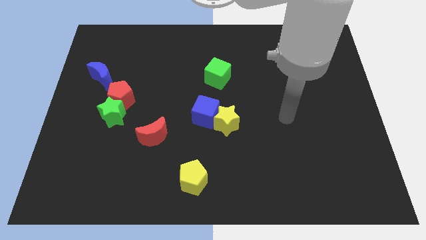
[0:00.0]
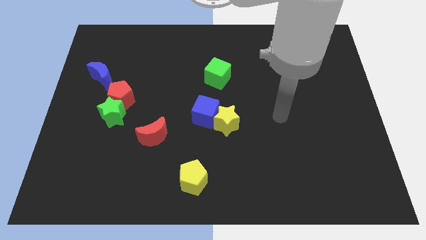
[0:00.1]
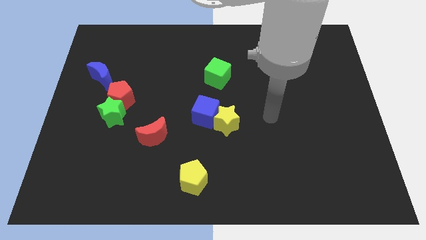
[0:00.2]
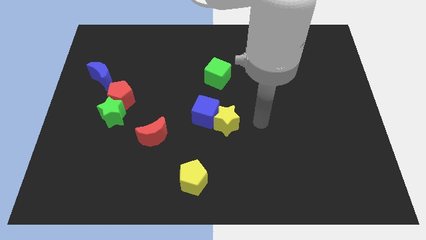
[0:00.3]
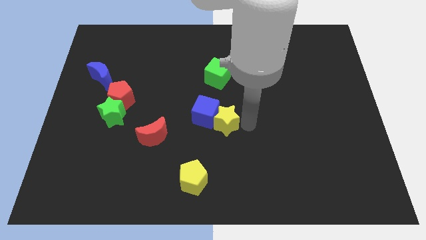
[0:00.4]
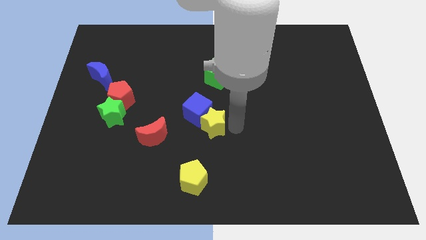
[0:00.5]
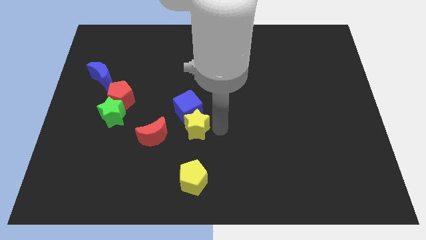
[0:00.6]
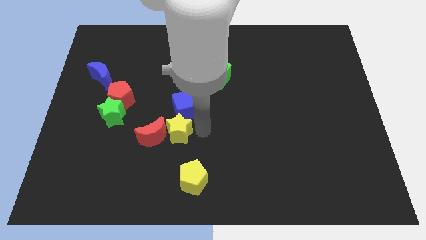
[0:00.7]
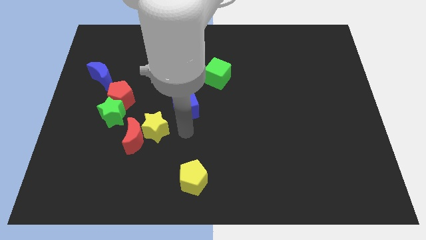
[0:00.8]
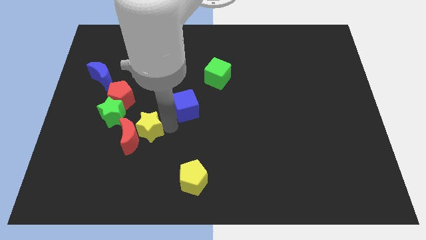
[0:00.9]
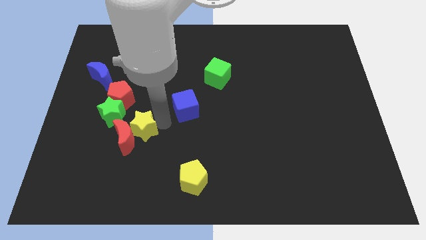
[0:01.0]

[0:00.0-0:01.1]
pull the blue cube apart from the yellow star

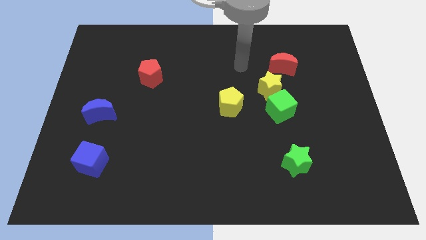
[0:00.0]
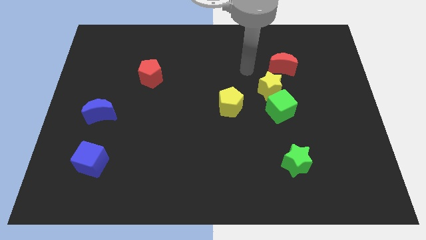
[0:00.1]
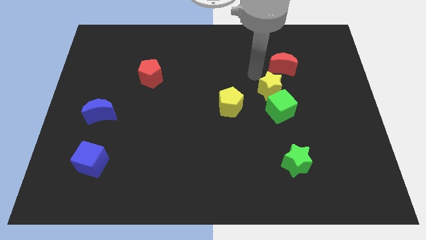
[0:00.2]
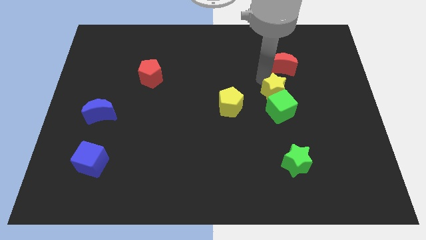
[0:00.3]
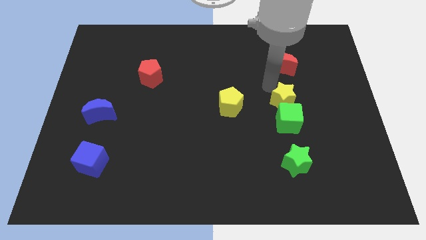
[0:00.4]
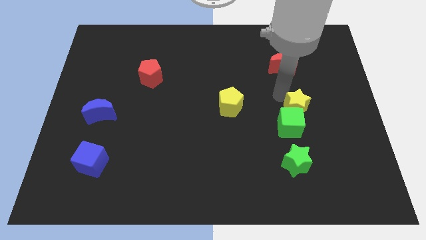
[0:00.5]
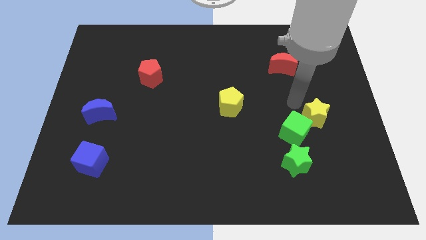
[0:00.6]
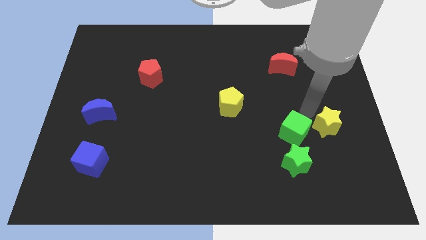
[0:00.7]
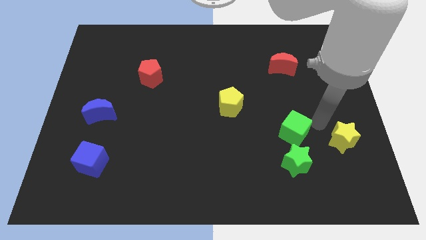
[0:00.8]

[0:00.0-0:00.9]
separate the green cube from the yellow star

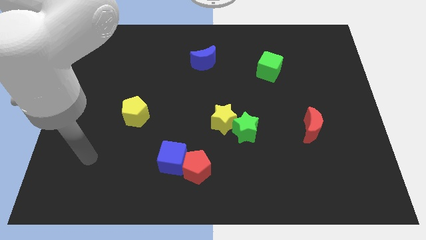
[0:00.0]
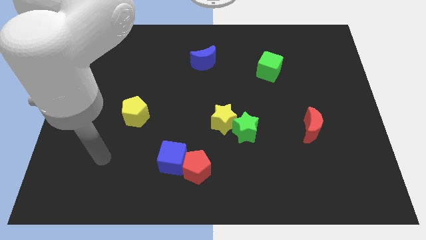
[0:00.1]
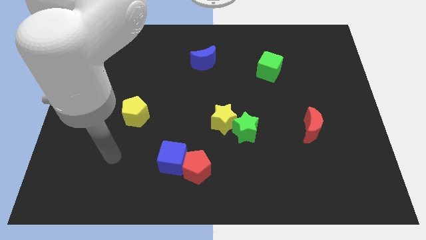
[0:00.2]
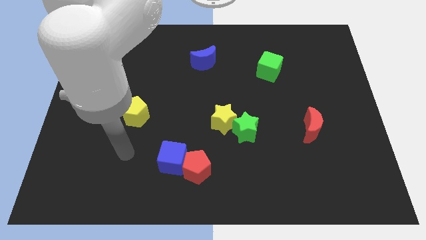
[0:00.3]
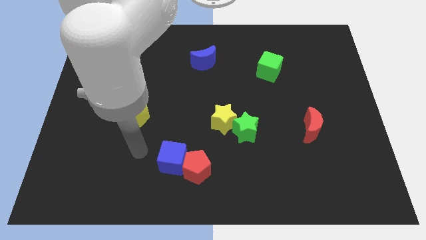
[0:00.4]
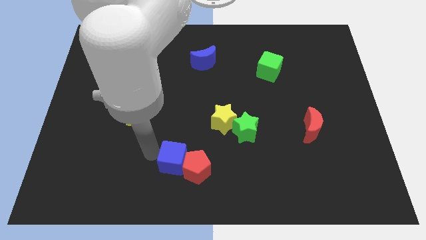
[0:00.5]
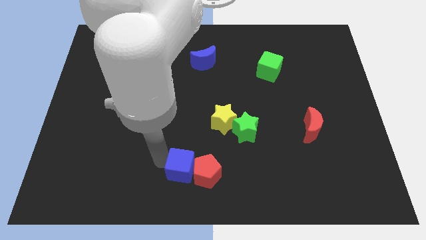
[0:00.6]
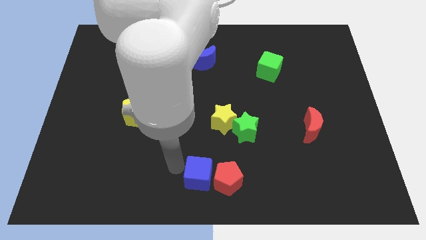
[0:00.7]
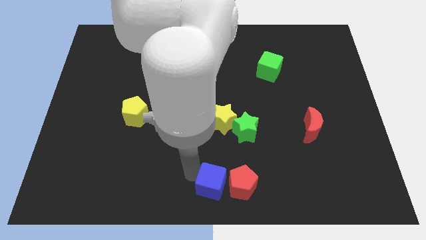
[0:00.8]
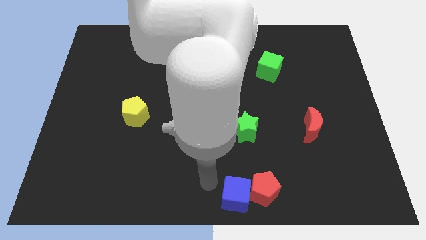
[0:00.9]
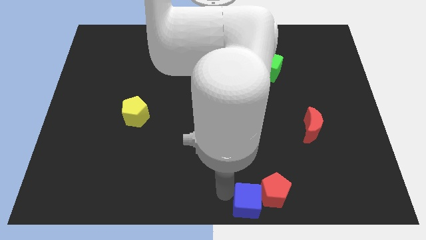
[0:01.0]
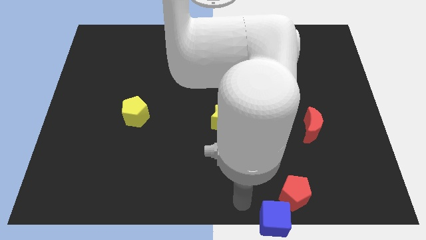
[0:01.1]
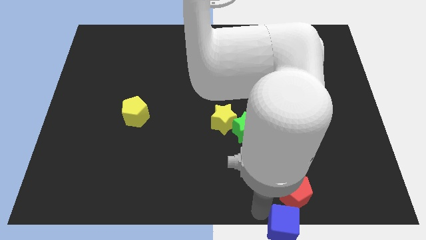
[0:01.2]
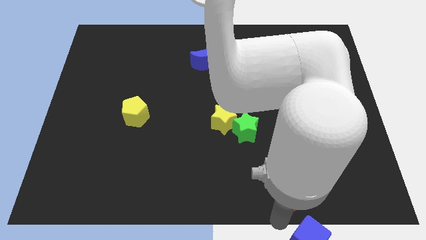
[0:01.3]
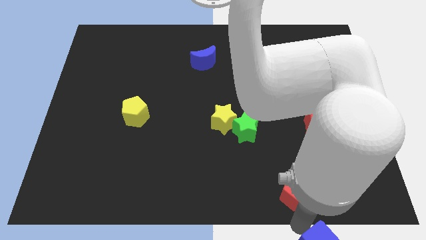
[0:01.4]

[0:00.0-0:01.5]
pull the red pentagon apart from the blue cube

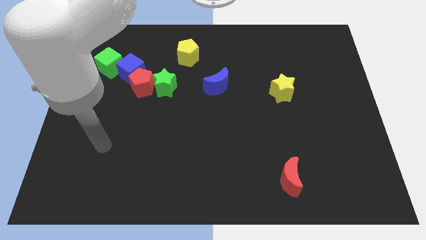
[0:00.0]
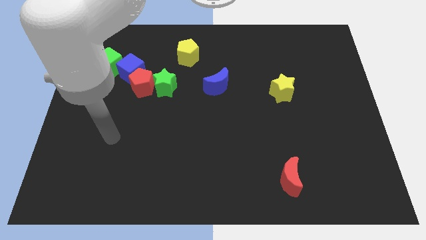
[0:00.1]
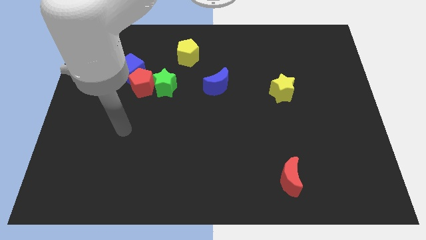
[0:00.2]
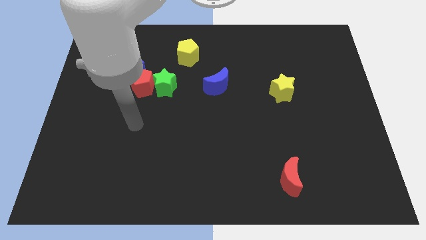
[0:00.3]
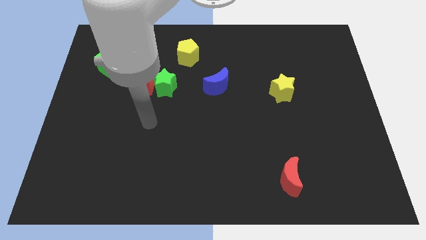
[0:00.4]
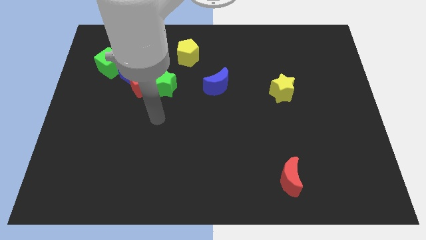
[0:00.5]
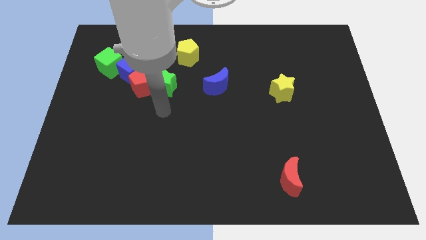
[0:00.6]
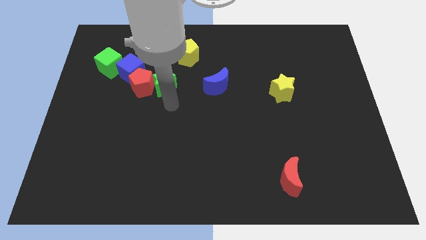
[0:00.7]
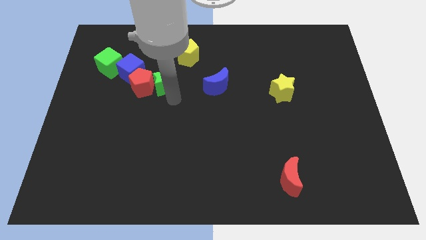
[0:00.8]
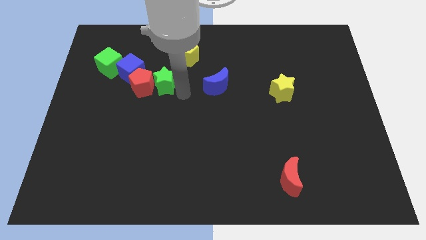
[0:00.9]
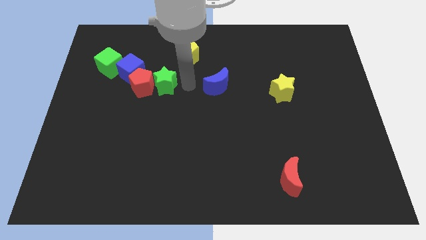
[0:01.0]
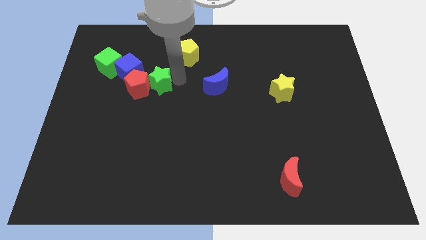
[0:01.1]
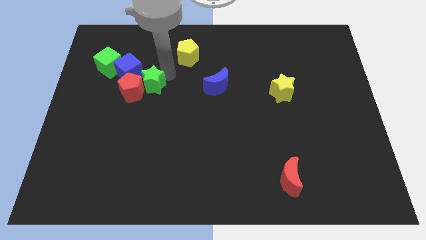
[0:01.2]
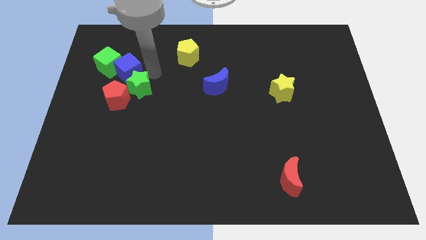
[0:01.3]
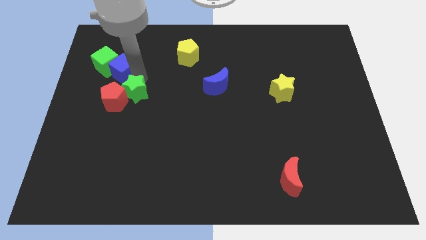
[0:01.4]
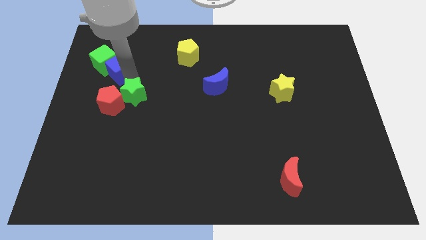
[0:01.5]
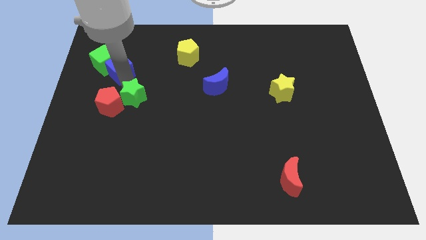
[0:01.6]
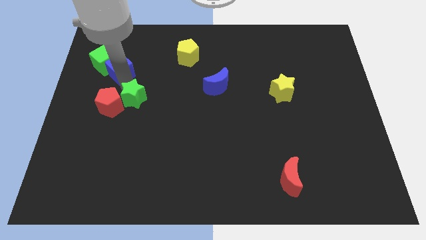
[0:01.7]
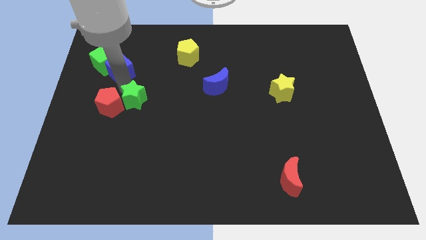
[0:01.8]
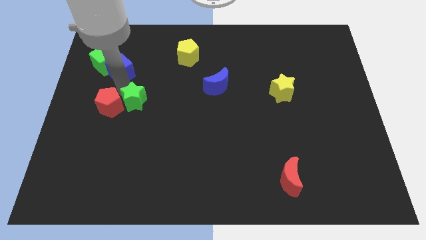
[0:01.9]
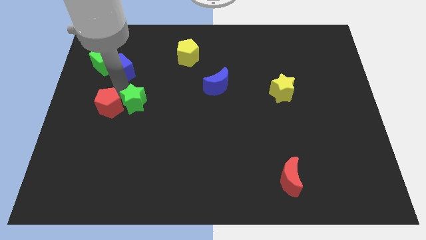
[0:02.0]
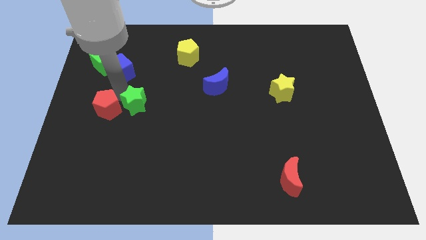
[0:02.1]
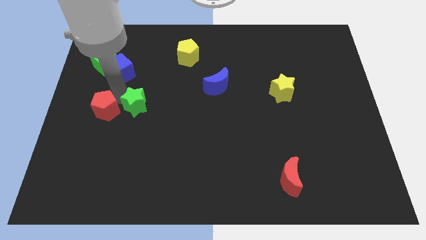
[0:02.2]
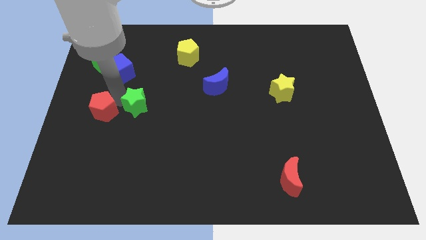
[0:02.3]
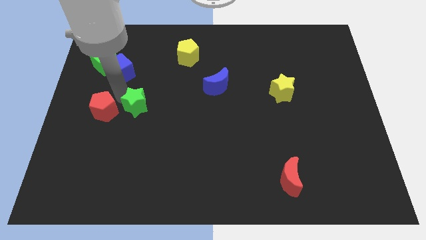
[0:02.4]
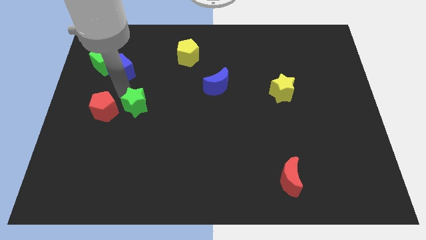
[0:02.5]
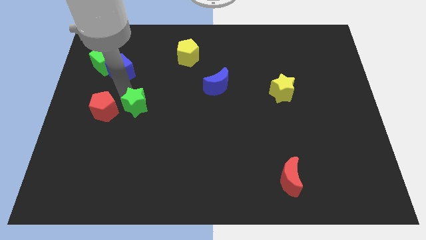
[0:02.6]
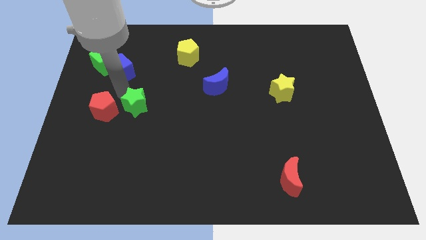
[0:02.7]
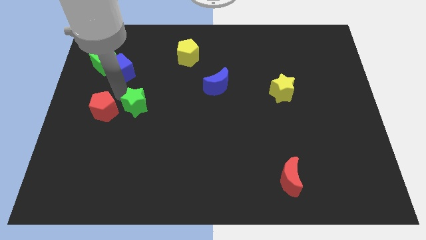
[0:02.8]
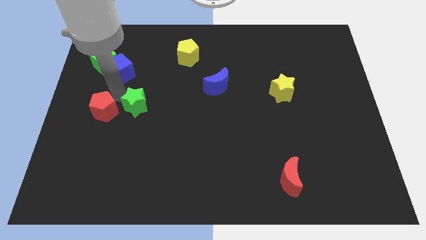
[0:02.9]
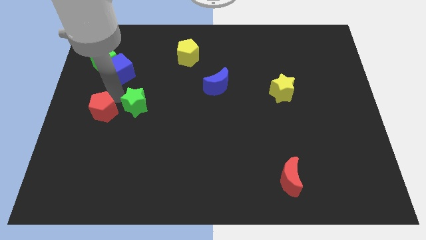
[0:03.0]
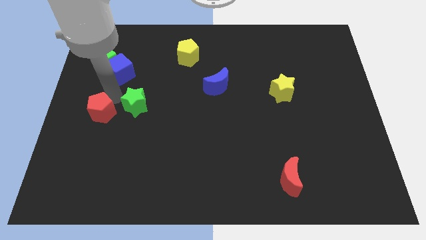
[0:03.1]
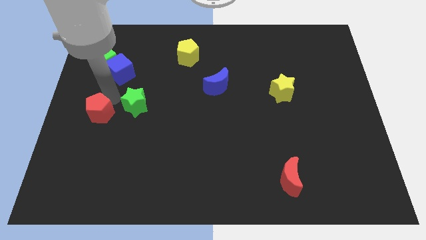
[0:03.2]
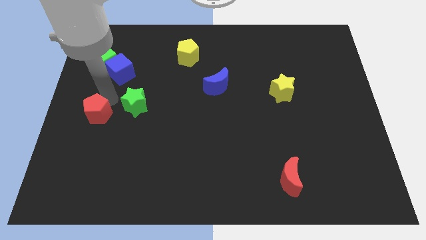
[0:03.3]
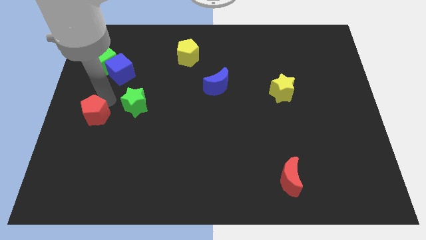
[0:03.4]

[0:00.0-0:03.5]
move the red pentagon away from the blue cube and green star

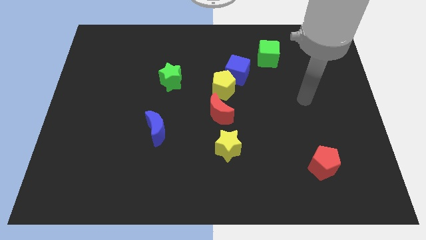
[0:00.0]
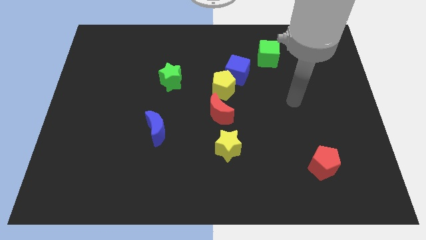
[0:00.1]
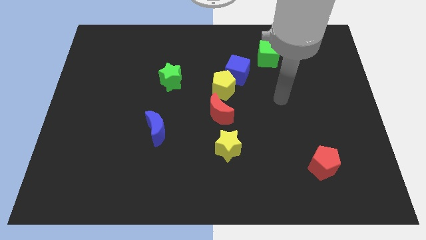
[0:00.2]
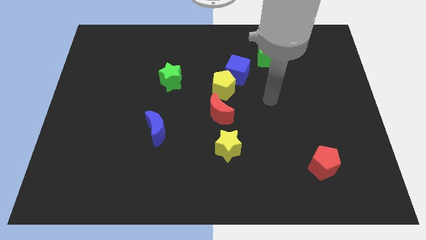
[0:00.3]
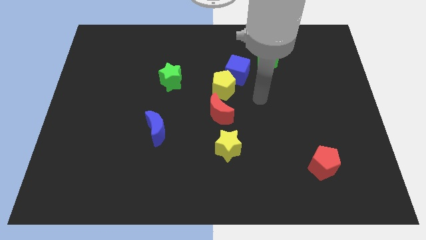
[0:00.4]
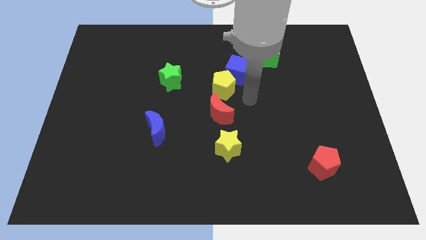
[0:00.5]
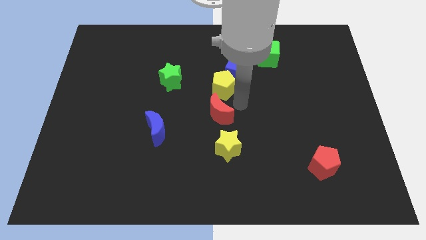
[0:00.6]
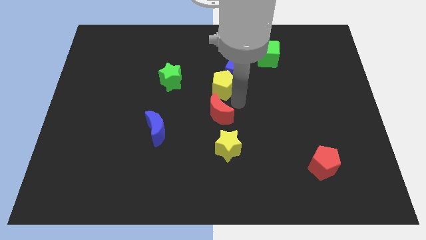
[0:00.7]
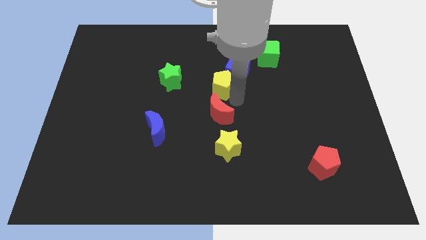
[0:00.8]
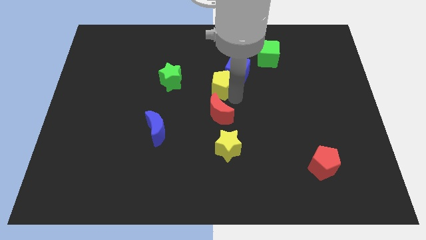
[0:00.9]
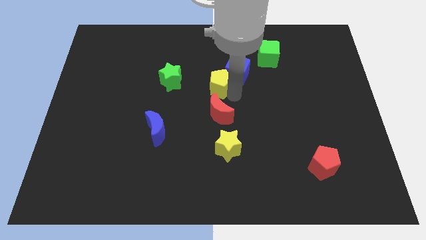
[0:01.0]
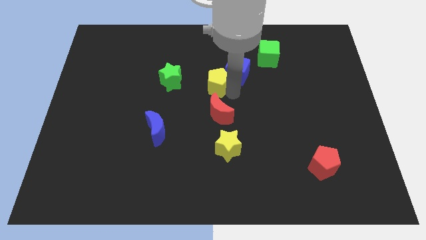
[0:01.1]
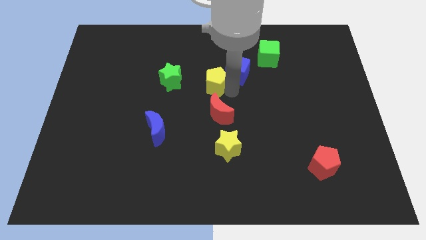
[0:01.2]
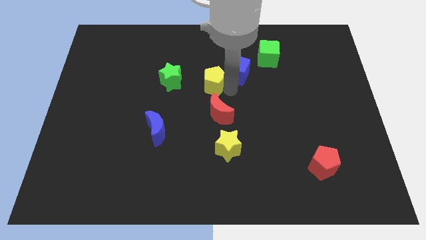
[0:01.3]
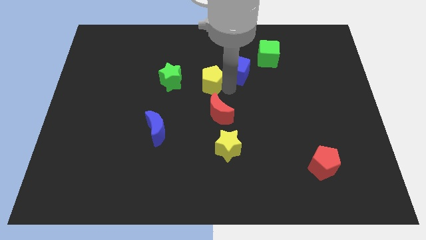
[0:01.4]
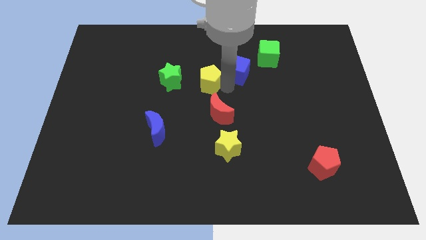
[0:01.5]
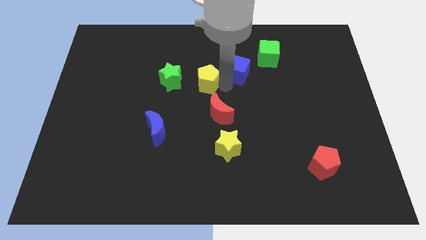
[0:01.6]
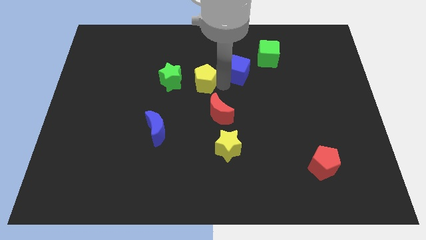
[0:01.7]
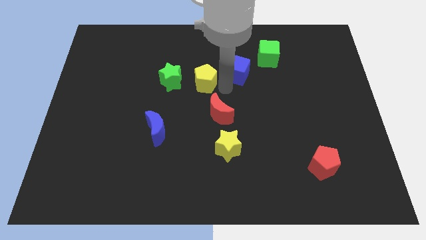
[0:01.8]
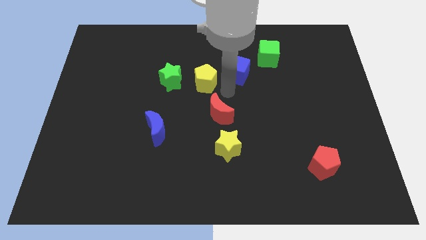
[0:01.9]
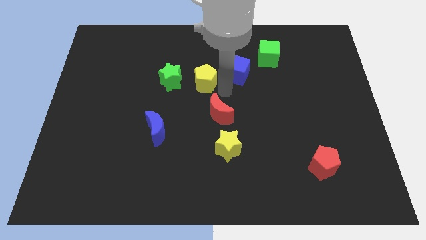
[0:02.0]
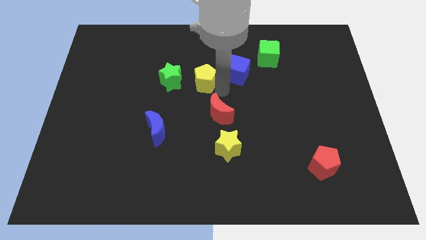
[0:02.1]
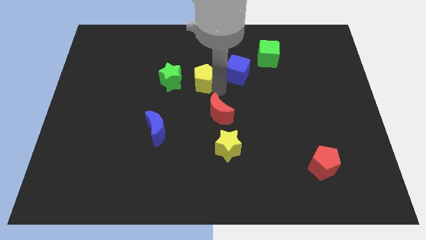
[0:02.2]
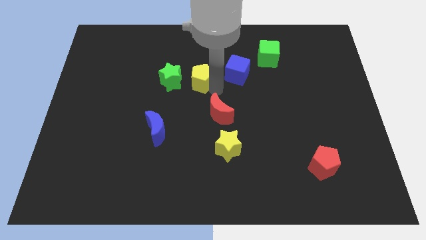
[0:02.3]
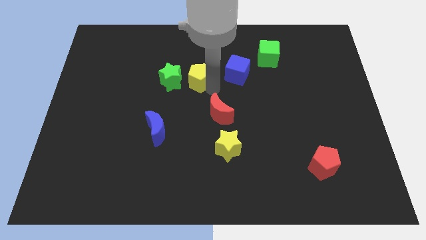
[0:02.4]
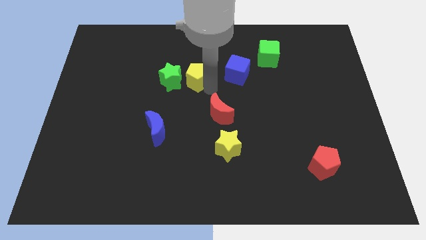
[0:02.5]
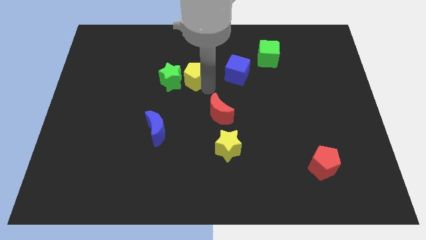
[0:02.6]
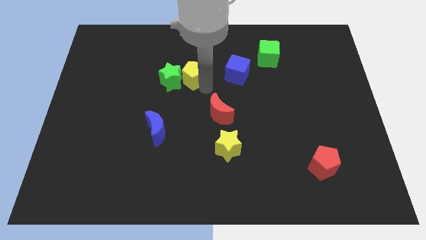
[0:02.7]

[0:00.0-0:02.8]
move the yellow pentagon away from the blue cube and red moon
